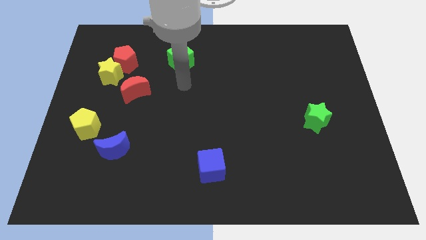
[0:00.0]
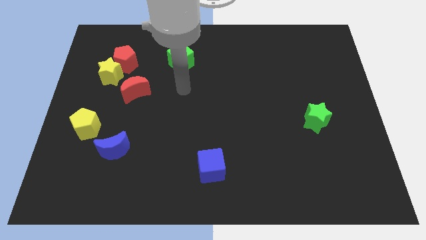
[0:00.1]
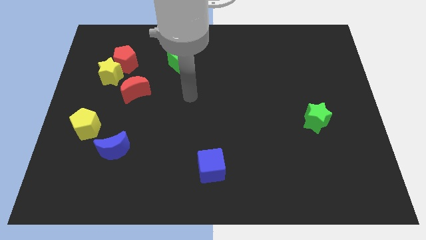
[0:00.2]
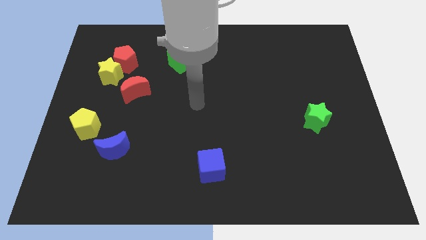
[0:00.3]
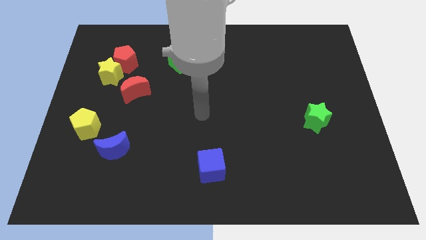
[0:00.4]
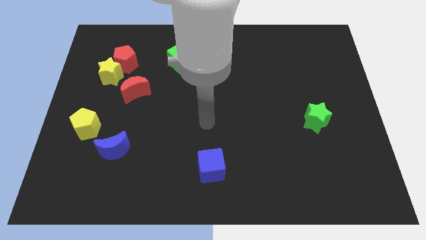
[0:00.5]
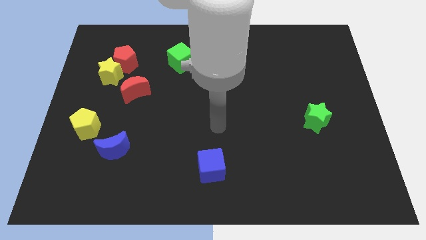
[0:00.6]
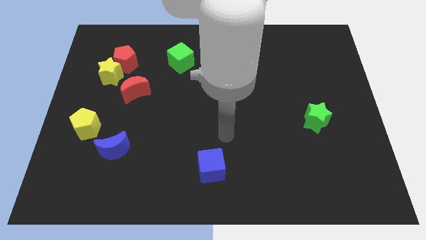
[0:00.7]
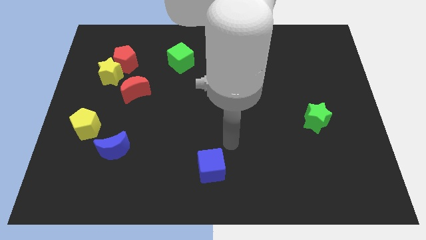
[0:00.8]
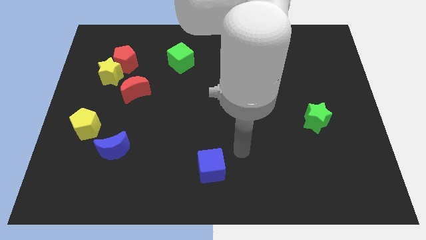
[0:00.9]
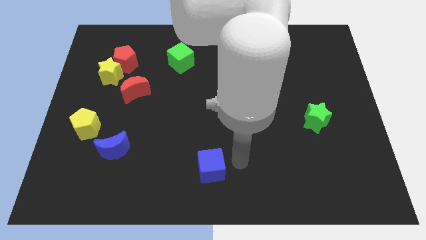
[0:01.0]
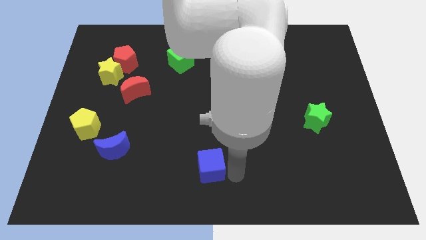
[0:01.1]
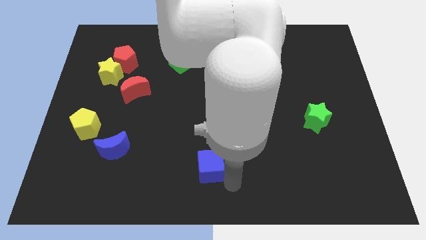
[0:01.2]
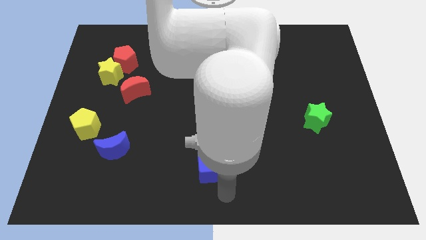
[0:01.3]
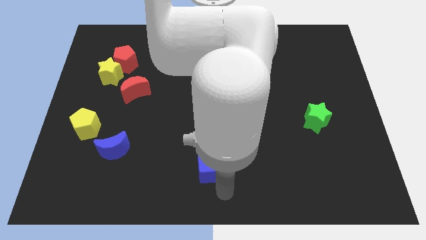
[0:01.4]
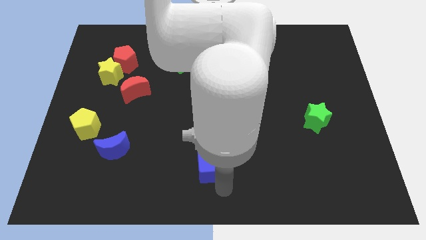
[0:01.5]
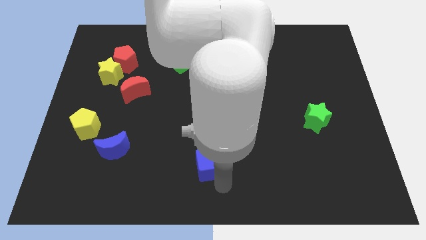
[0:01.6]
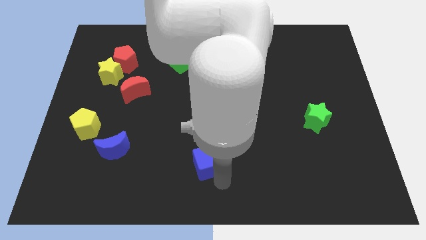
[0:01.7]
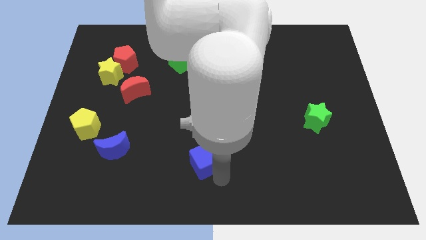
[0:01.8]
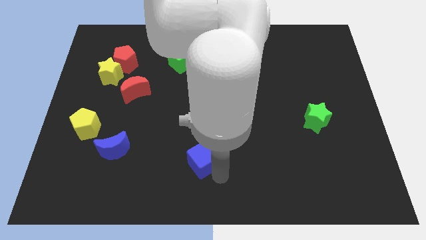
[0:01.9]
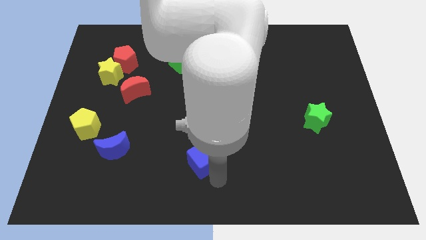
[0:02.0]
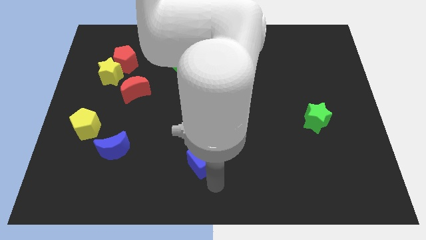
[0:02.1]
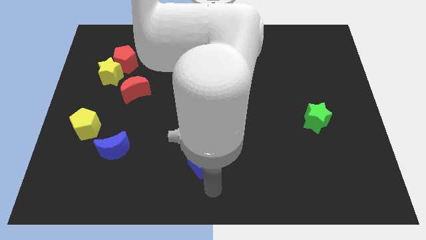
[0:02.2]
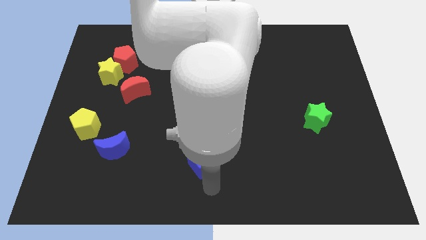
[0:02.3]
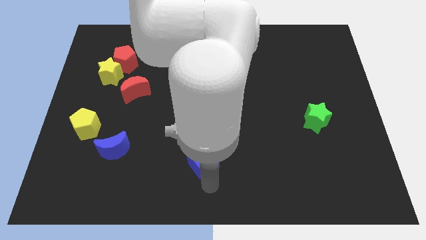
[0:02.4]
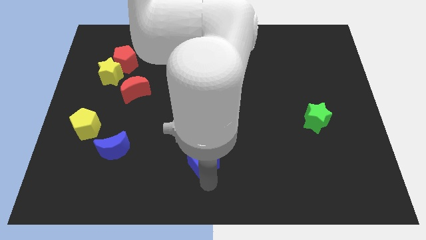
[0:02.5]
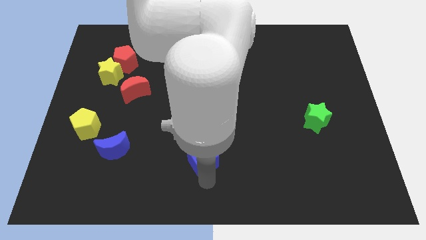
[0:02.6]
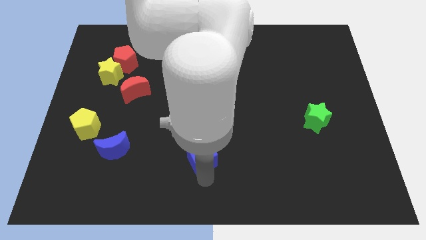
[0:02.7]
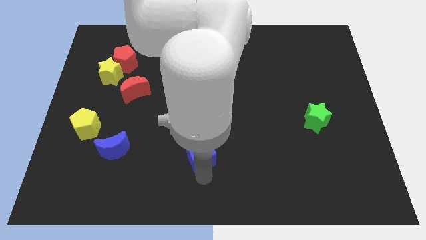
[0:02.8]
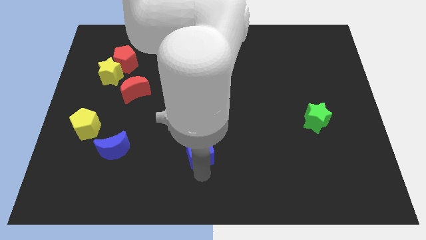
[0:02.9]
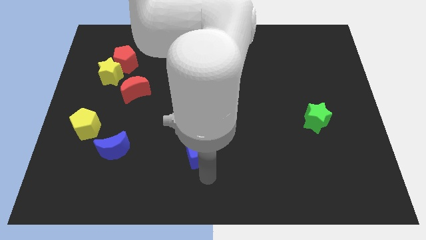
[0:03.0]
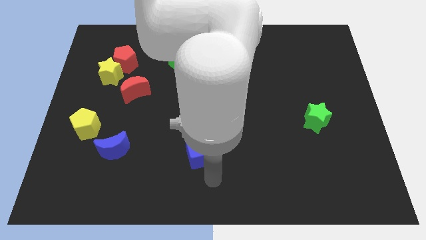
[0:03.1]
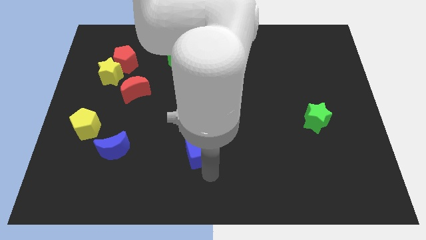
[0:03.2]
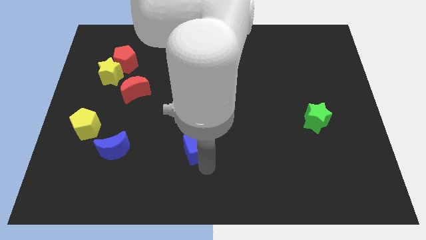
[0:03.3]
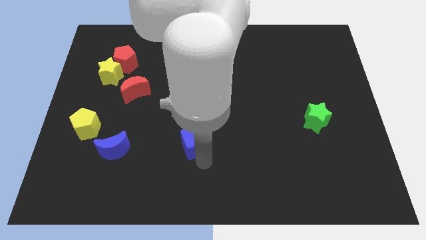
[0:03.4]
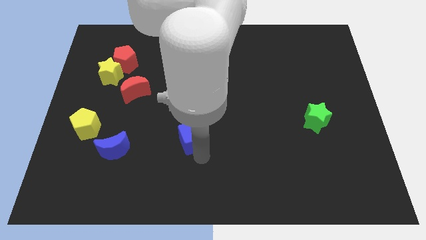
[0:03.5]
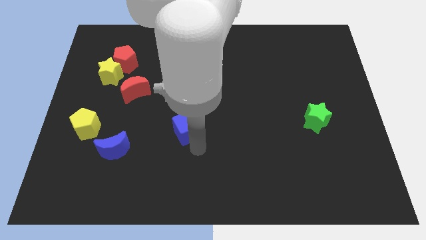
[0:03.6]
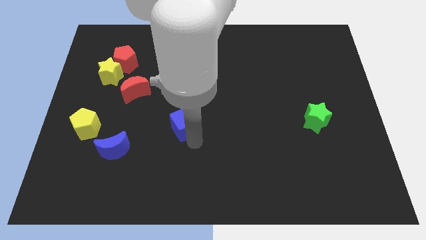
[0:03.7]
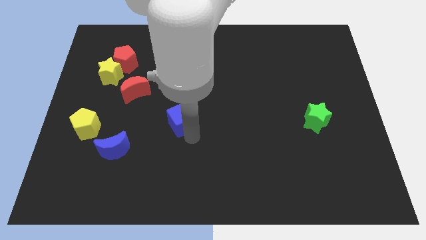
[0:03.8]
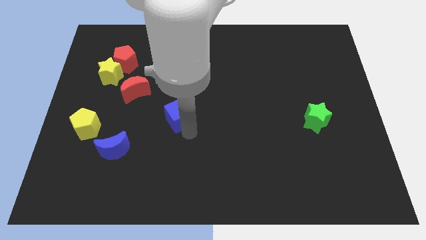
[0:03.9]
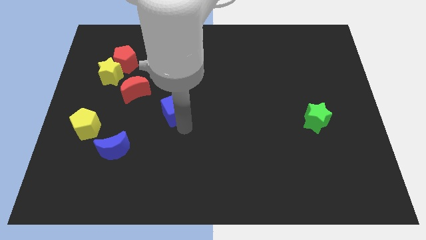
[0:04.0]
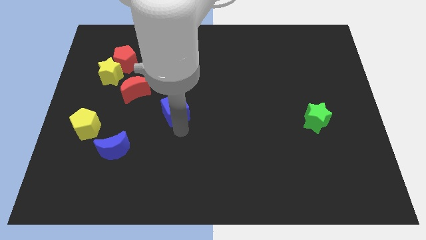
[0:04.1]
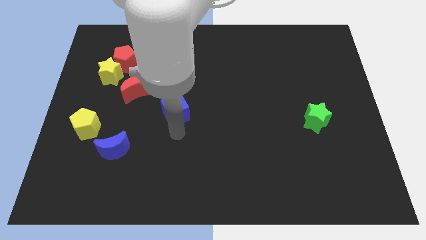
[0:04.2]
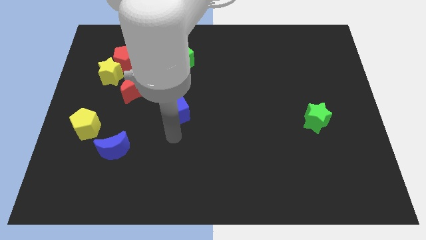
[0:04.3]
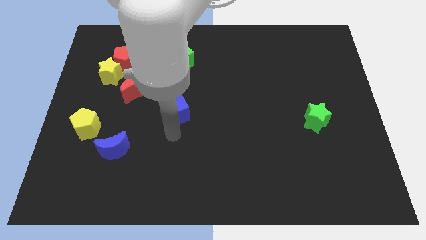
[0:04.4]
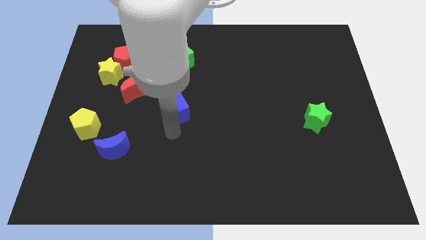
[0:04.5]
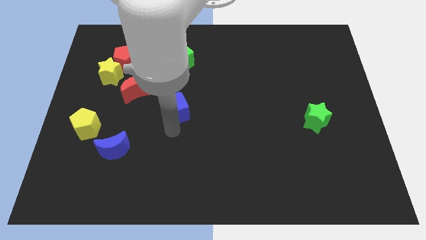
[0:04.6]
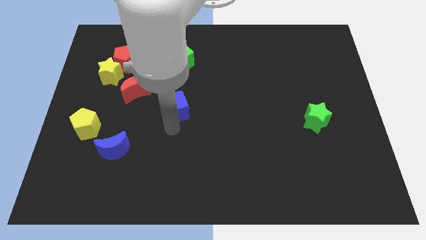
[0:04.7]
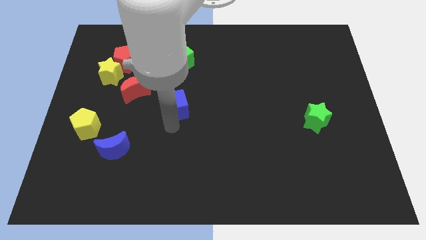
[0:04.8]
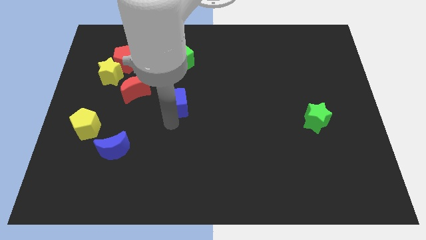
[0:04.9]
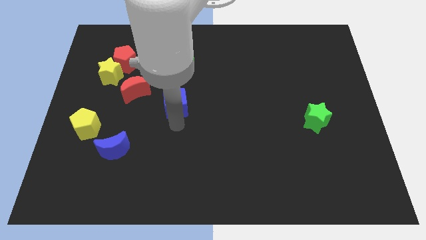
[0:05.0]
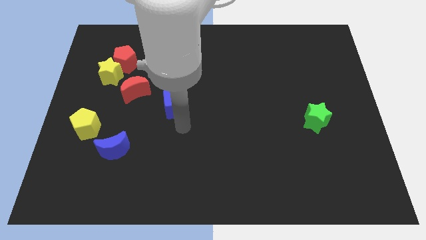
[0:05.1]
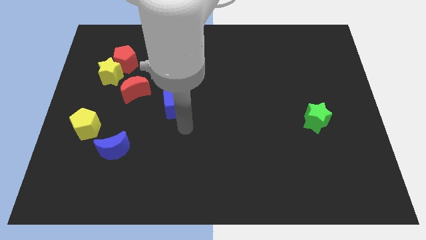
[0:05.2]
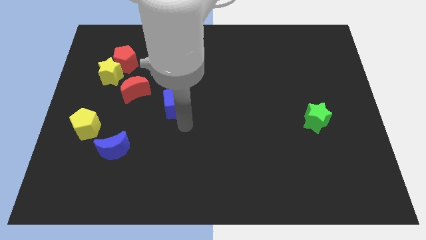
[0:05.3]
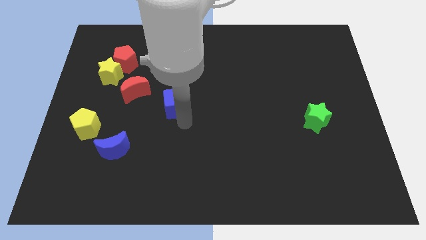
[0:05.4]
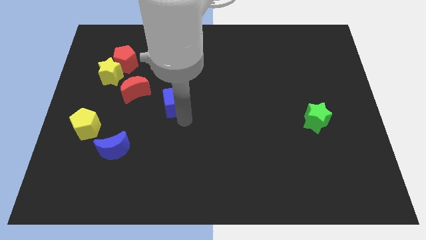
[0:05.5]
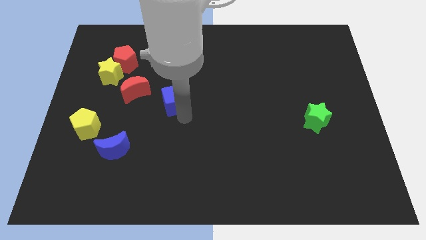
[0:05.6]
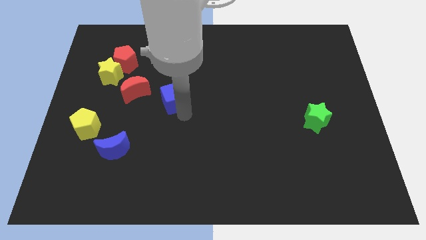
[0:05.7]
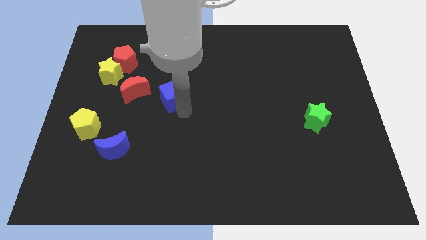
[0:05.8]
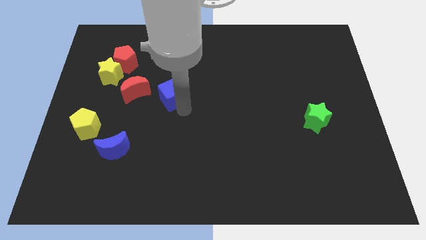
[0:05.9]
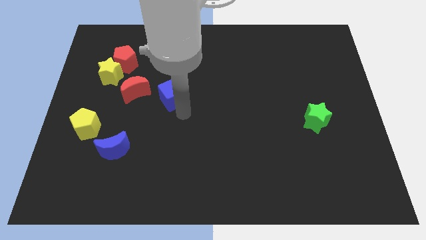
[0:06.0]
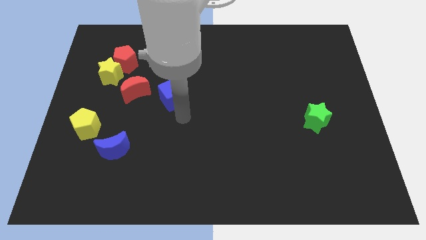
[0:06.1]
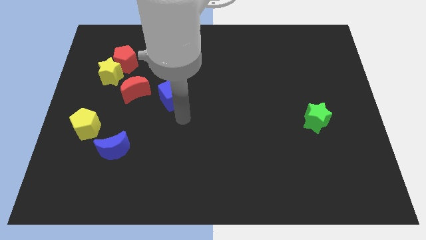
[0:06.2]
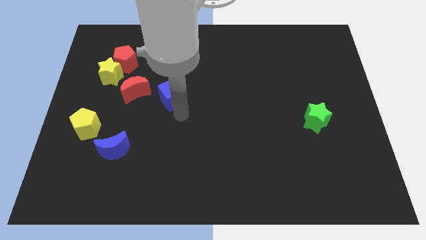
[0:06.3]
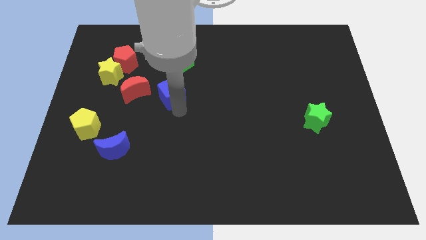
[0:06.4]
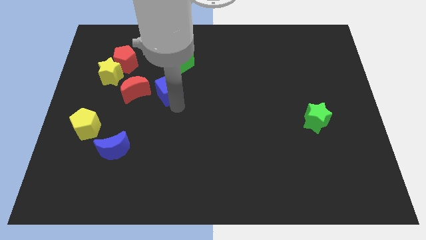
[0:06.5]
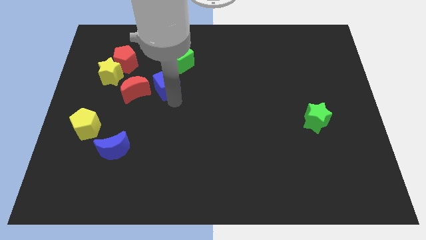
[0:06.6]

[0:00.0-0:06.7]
move the blue cube to the bottom left side of the green cube

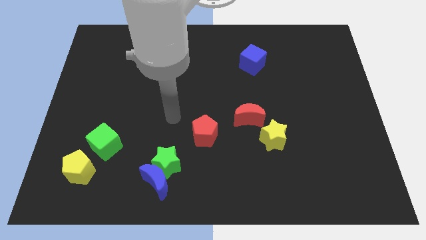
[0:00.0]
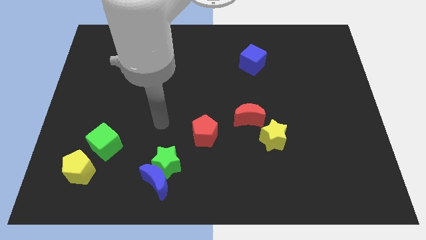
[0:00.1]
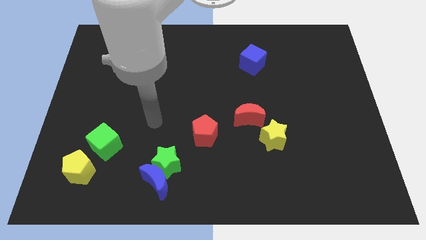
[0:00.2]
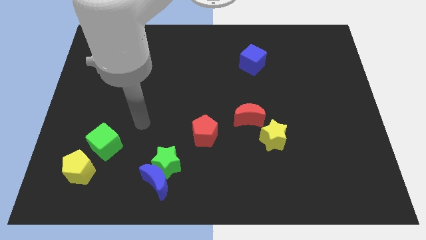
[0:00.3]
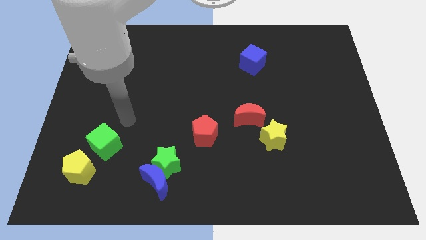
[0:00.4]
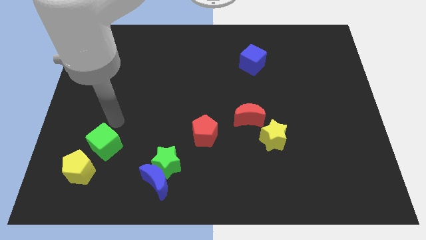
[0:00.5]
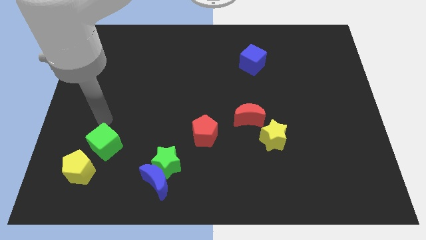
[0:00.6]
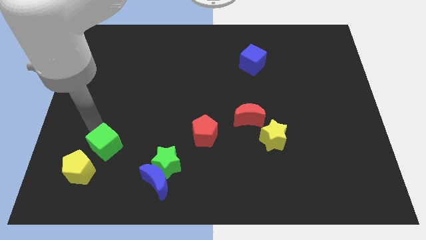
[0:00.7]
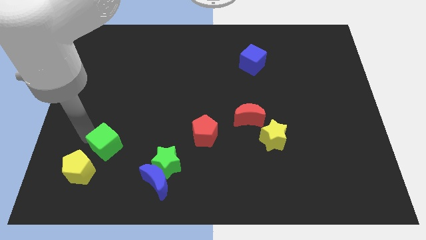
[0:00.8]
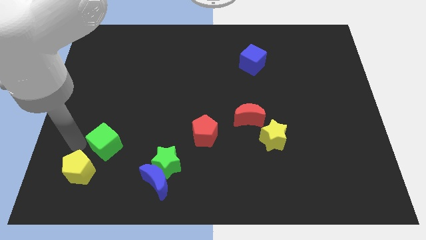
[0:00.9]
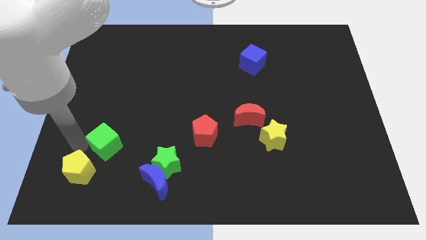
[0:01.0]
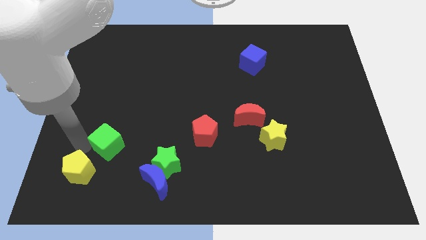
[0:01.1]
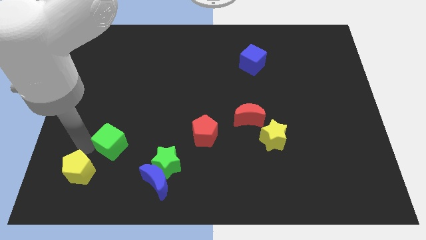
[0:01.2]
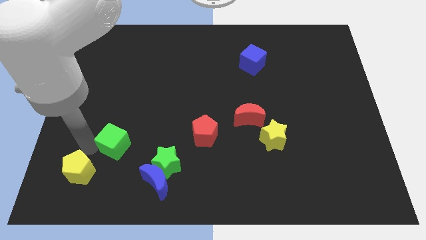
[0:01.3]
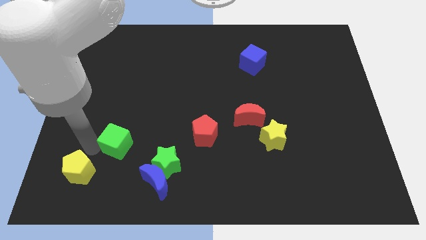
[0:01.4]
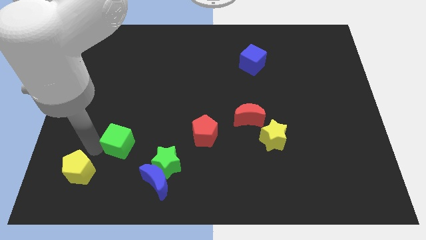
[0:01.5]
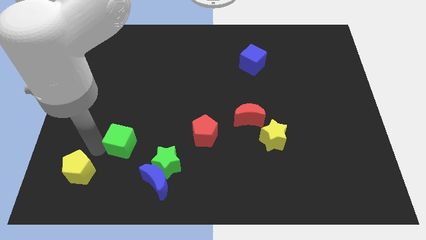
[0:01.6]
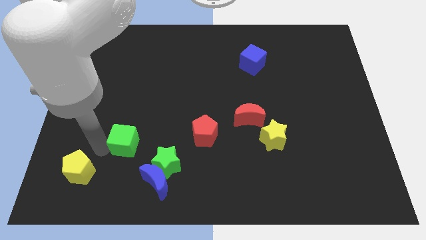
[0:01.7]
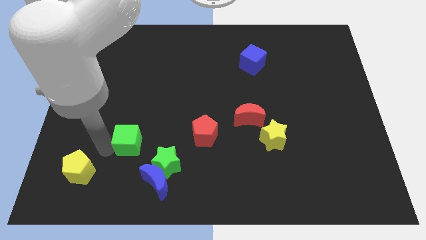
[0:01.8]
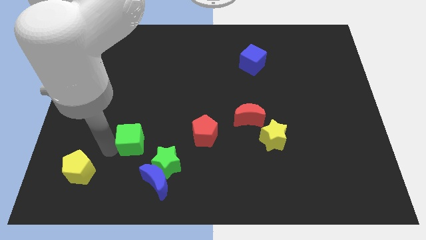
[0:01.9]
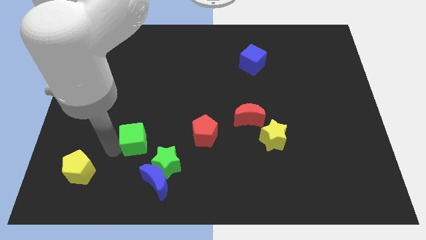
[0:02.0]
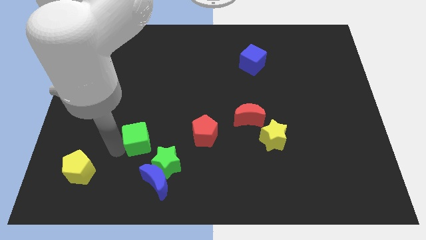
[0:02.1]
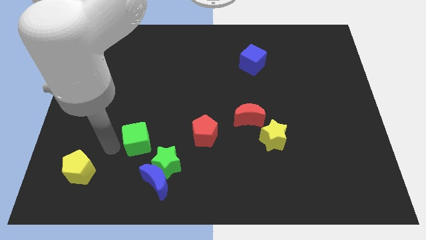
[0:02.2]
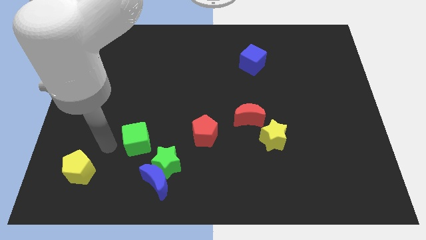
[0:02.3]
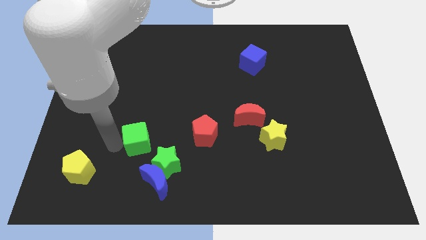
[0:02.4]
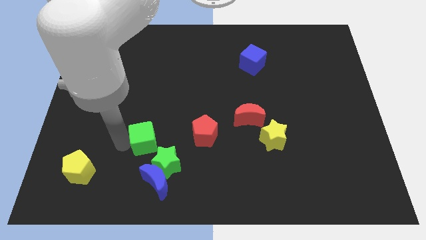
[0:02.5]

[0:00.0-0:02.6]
slide the green cube to the top side of the blue moon
